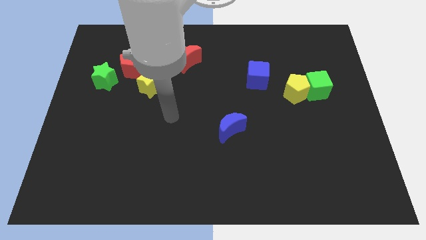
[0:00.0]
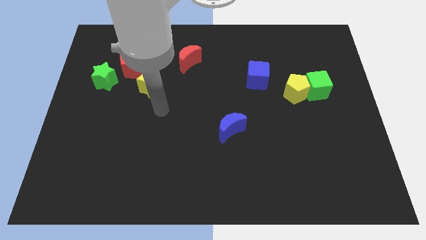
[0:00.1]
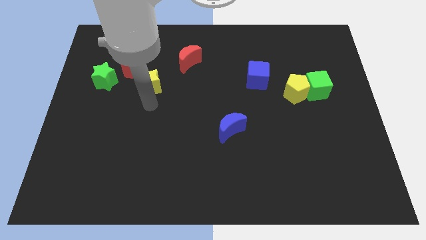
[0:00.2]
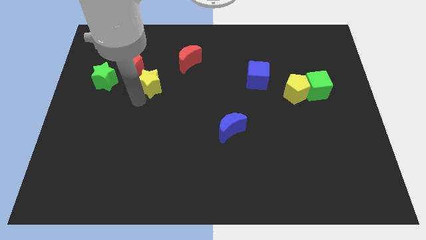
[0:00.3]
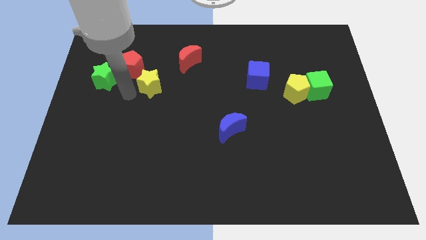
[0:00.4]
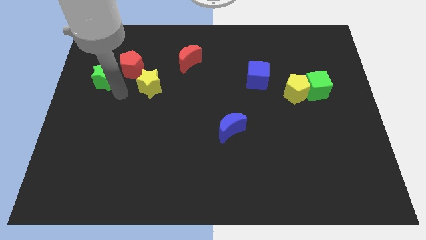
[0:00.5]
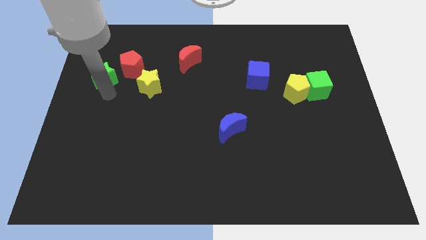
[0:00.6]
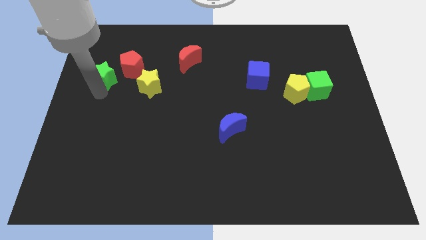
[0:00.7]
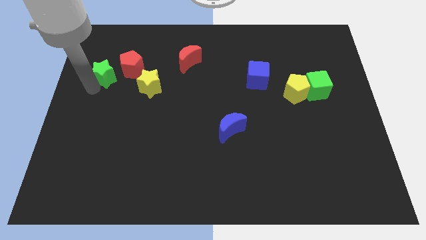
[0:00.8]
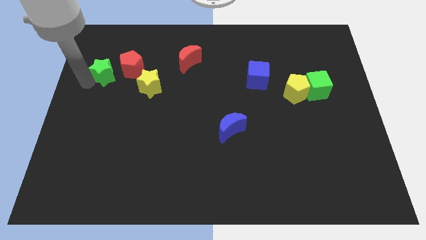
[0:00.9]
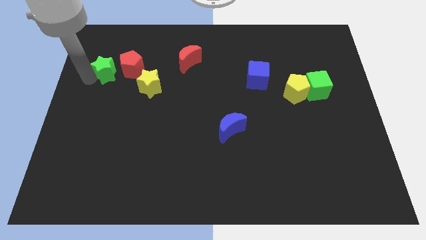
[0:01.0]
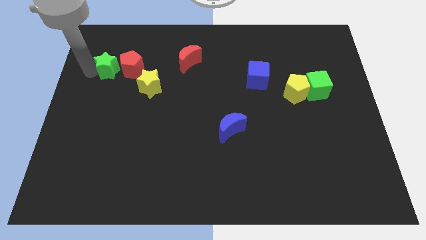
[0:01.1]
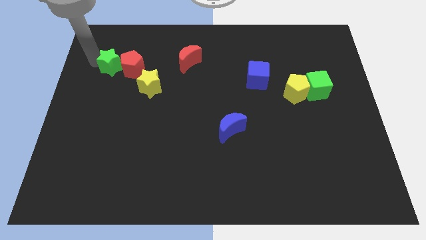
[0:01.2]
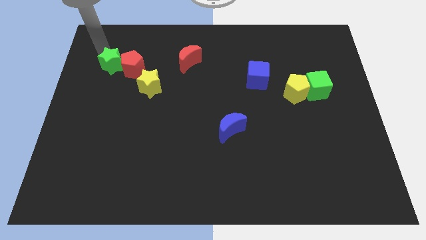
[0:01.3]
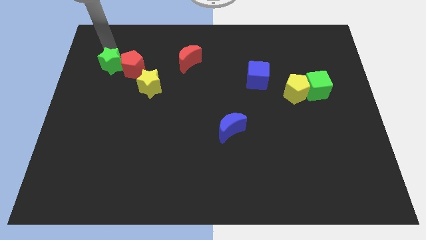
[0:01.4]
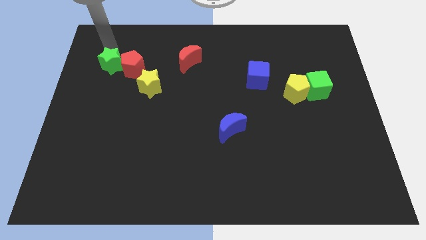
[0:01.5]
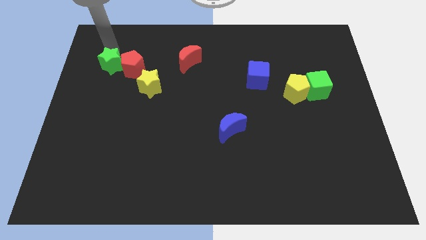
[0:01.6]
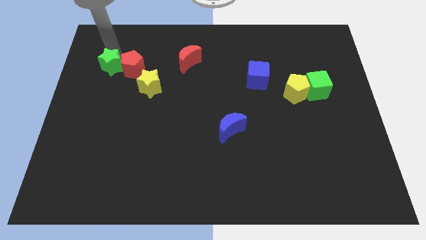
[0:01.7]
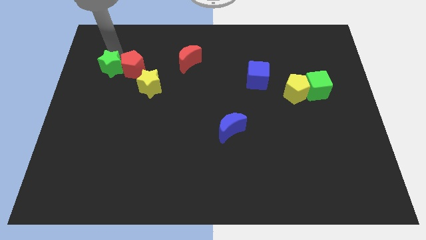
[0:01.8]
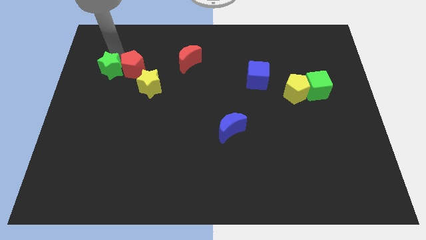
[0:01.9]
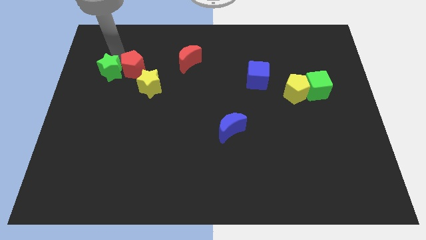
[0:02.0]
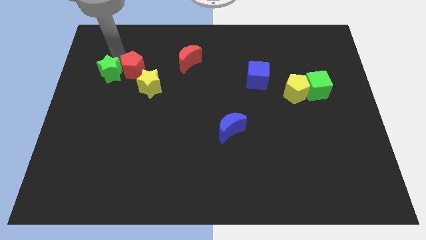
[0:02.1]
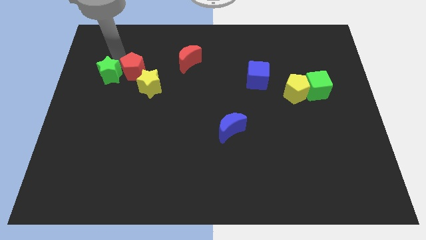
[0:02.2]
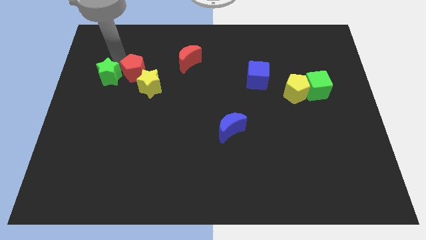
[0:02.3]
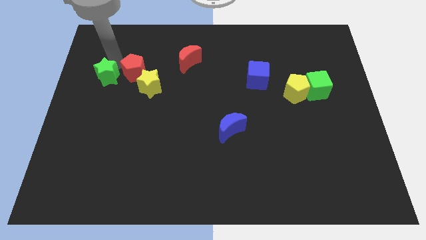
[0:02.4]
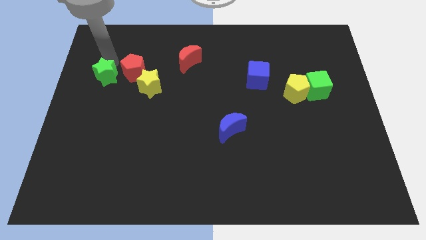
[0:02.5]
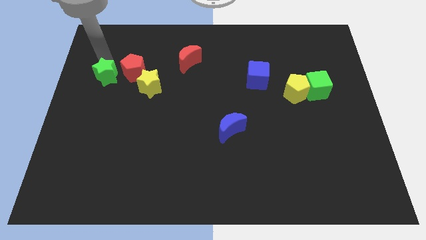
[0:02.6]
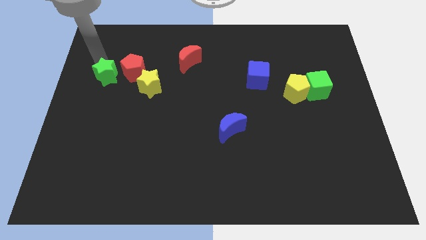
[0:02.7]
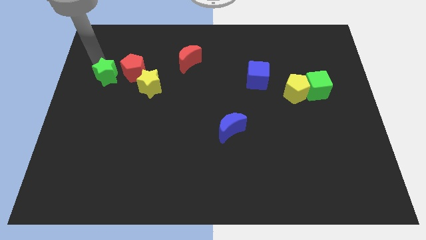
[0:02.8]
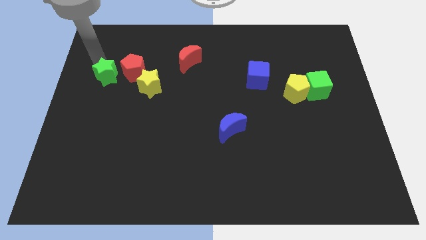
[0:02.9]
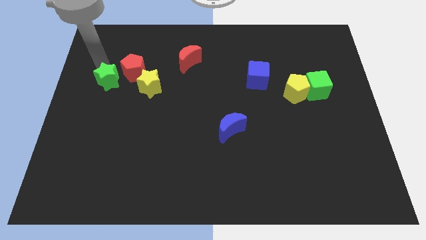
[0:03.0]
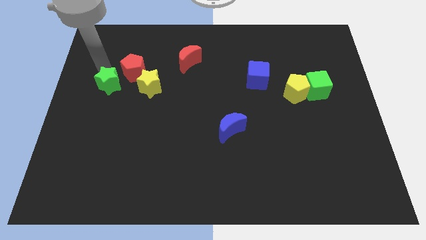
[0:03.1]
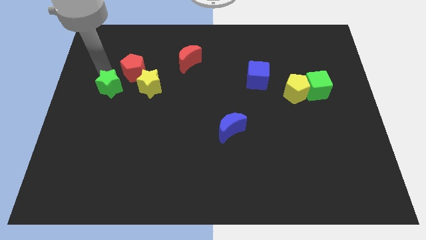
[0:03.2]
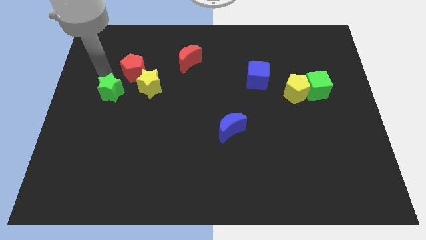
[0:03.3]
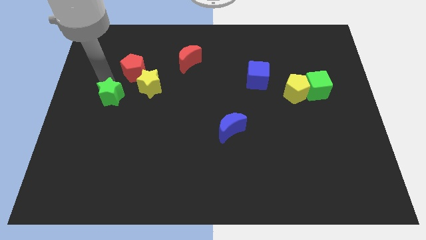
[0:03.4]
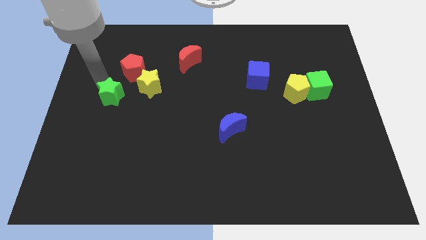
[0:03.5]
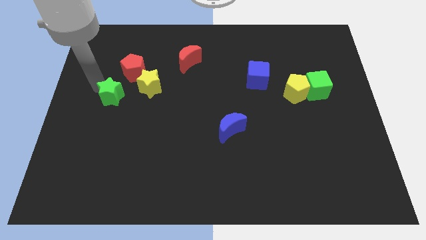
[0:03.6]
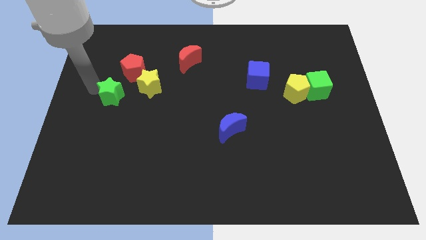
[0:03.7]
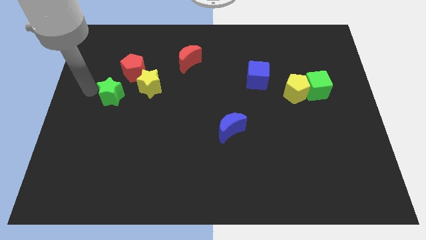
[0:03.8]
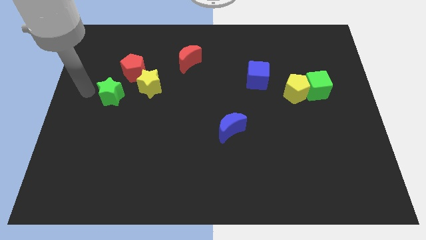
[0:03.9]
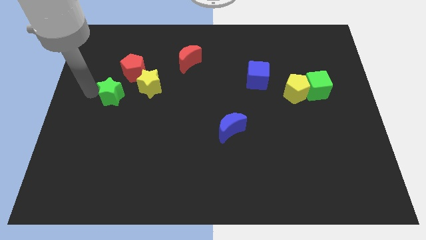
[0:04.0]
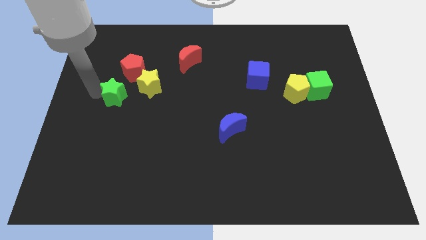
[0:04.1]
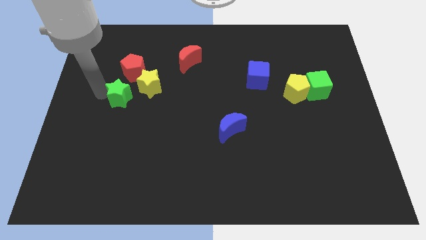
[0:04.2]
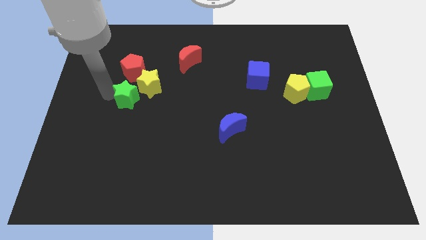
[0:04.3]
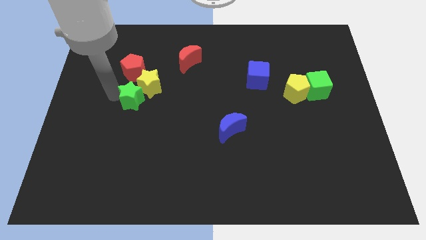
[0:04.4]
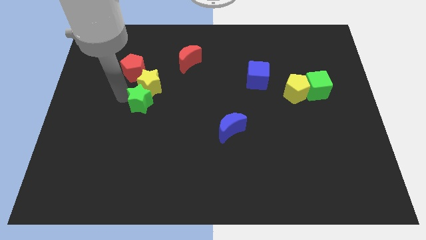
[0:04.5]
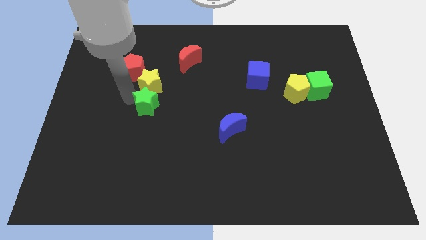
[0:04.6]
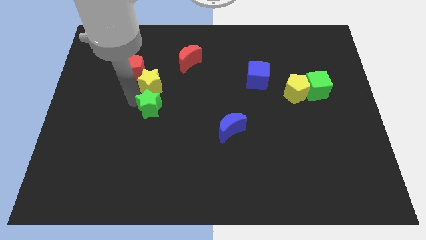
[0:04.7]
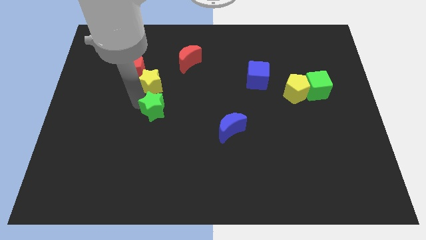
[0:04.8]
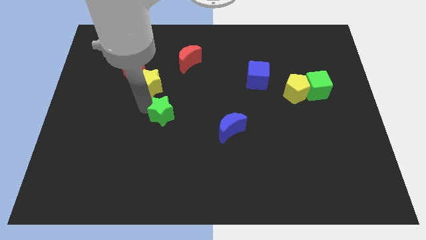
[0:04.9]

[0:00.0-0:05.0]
push the green star to the middle

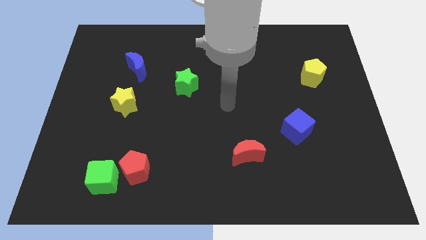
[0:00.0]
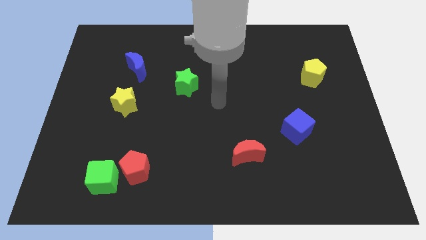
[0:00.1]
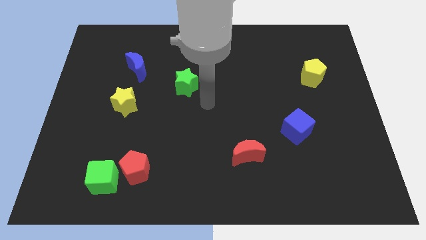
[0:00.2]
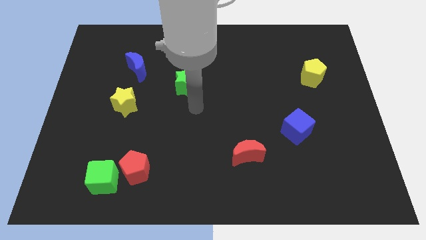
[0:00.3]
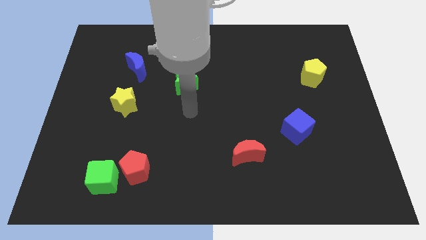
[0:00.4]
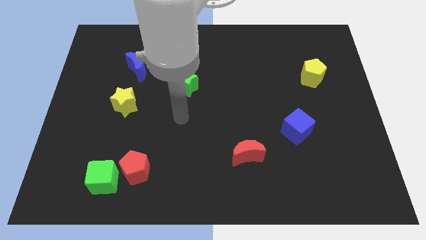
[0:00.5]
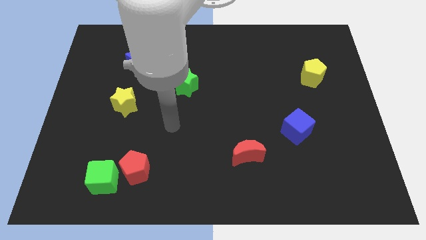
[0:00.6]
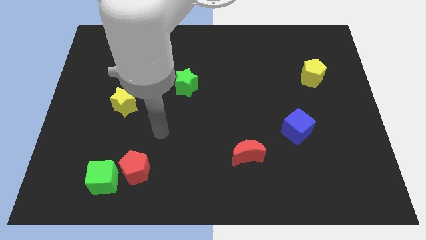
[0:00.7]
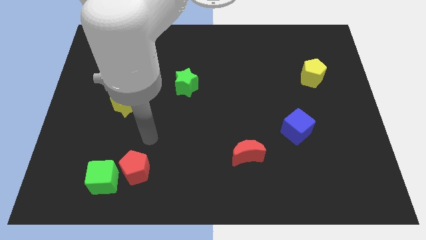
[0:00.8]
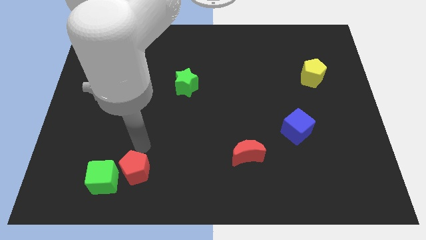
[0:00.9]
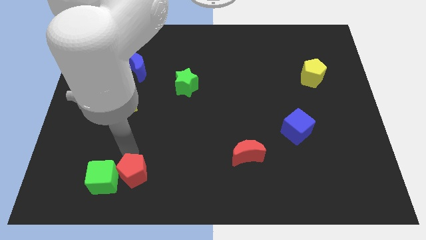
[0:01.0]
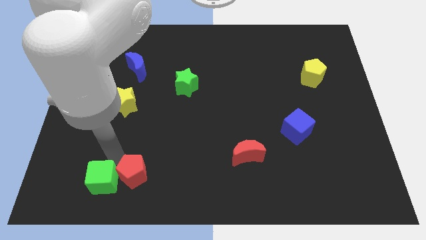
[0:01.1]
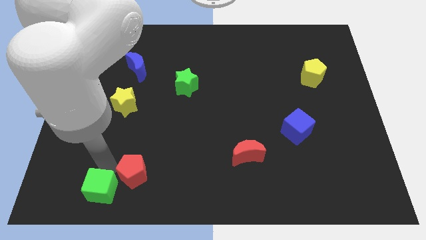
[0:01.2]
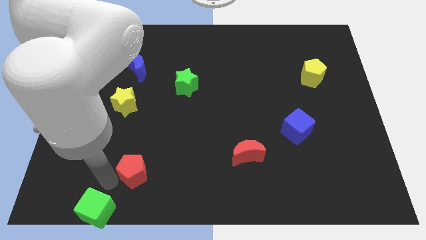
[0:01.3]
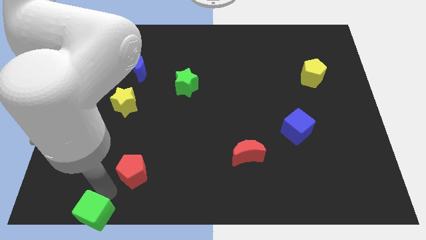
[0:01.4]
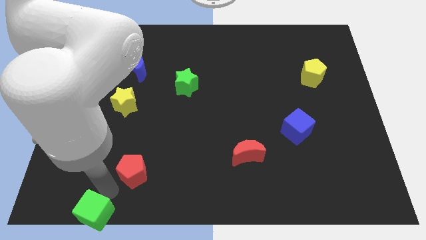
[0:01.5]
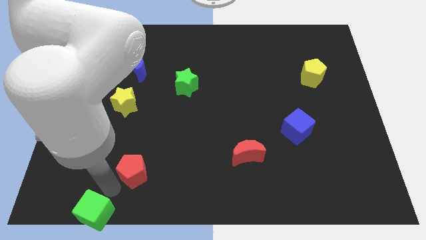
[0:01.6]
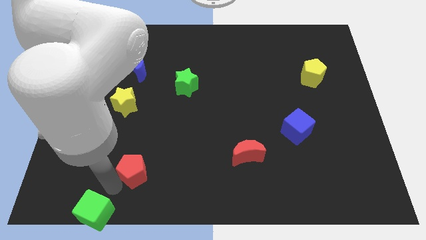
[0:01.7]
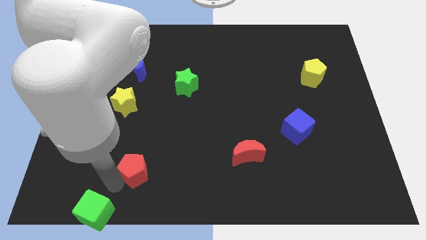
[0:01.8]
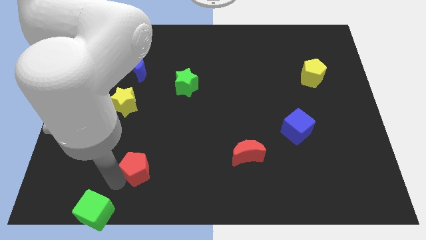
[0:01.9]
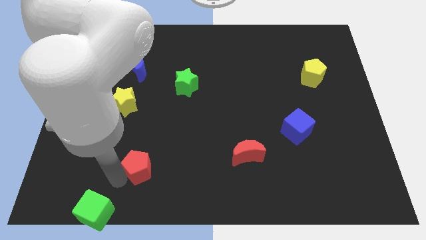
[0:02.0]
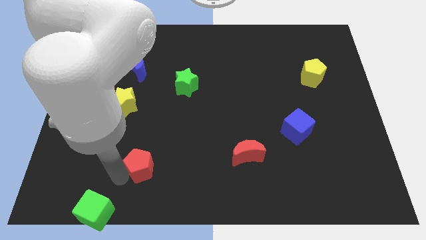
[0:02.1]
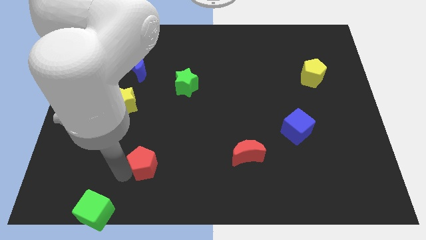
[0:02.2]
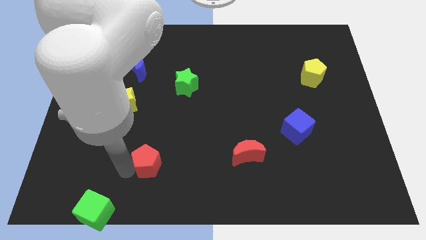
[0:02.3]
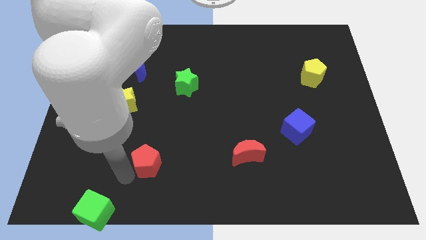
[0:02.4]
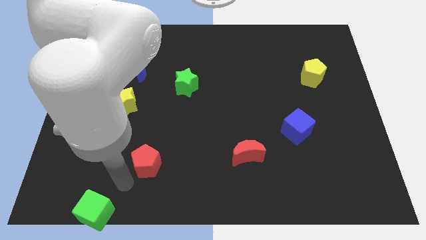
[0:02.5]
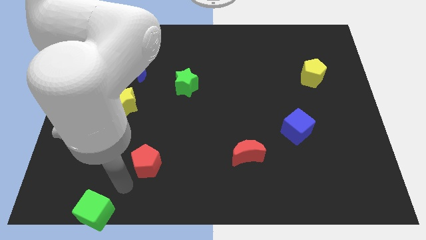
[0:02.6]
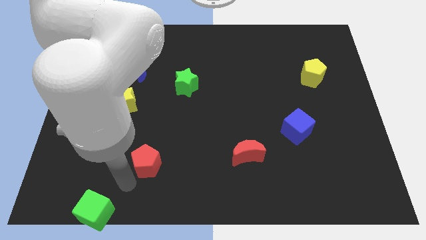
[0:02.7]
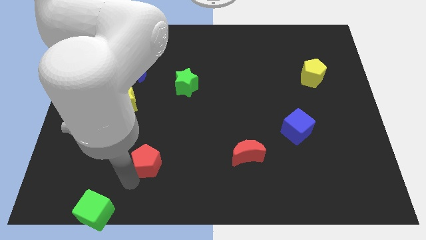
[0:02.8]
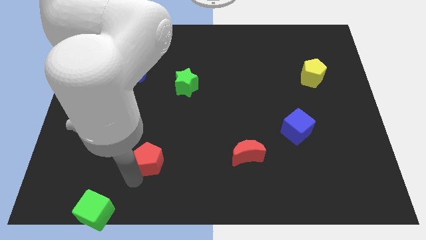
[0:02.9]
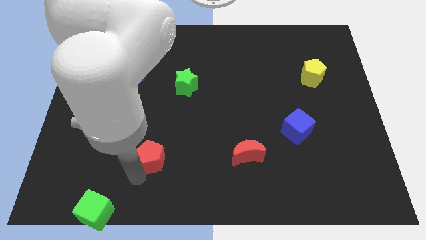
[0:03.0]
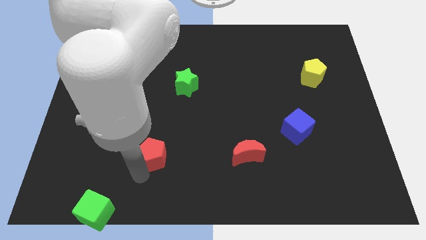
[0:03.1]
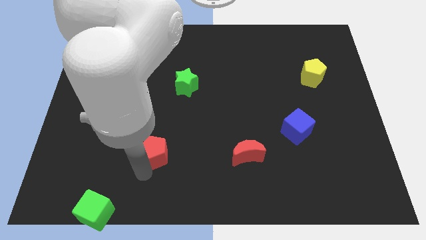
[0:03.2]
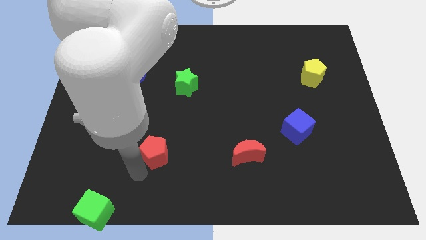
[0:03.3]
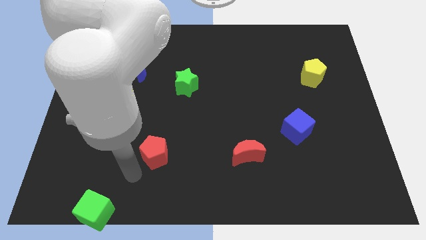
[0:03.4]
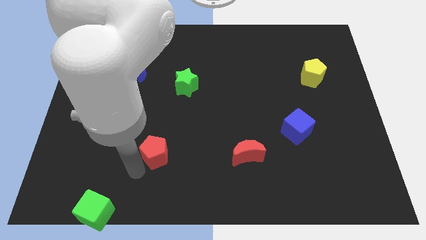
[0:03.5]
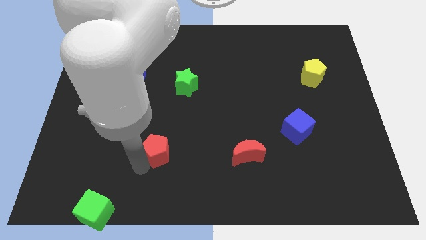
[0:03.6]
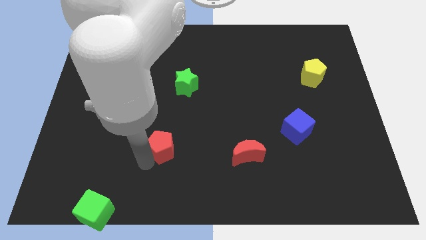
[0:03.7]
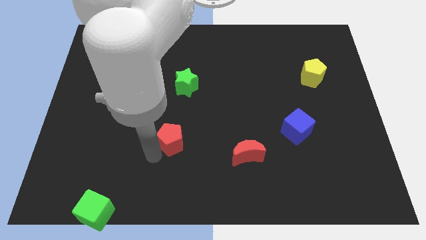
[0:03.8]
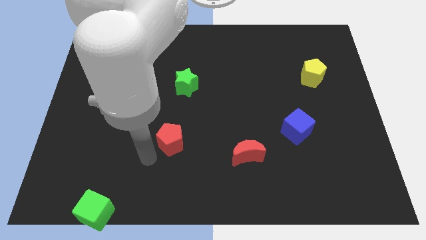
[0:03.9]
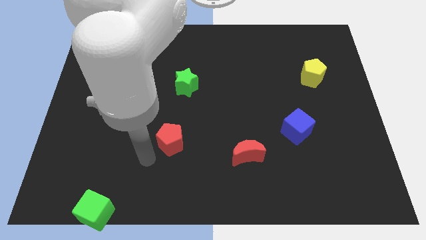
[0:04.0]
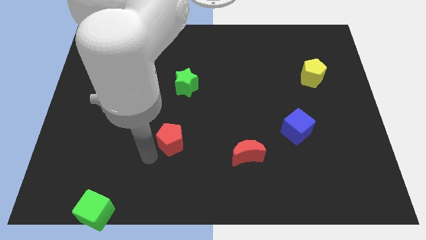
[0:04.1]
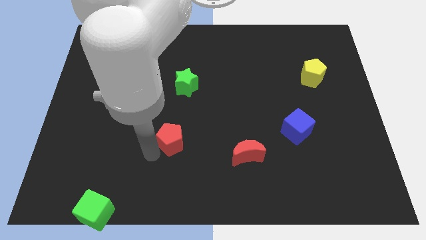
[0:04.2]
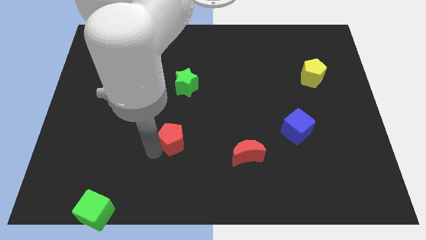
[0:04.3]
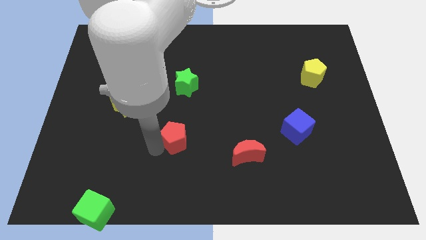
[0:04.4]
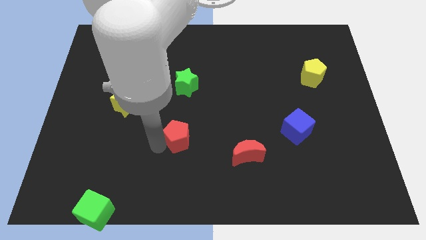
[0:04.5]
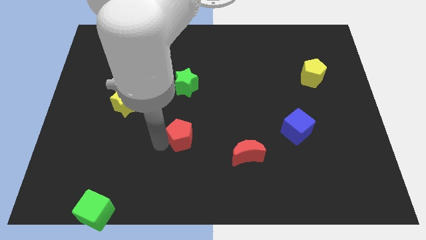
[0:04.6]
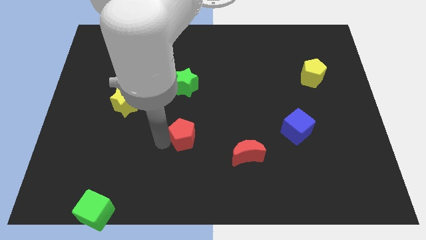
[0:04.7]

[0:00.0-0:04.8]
move the red pentagon to the middle of the board
